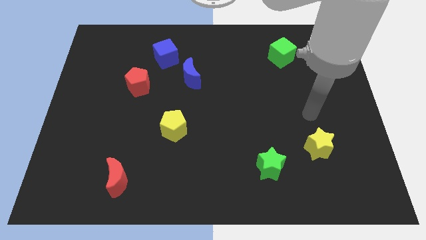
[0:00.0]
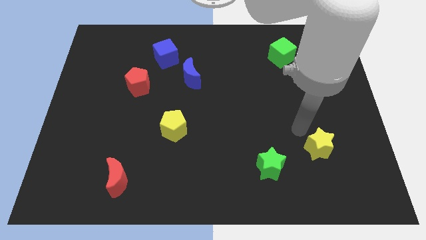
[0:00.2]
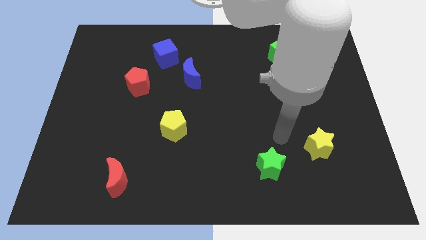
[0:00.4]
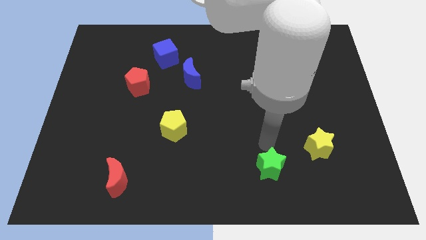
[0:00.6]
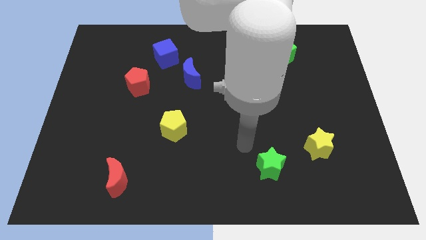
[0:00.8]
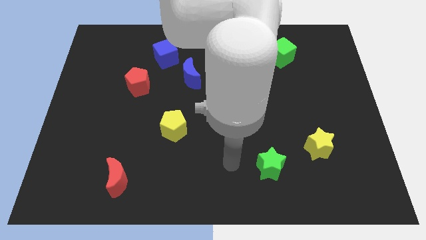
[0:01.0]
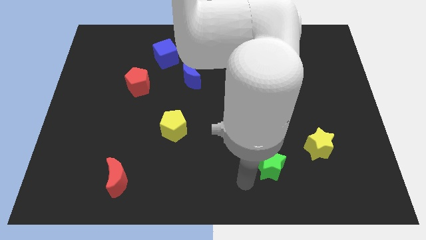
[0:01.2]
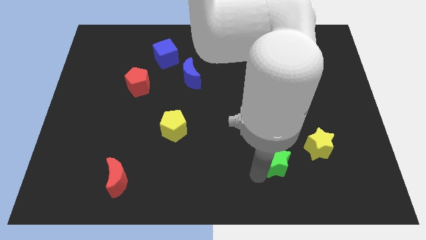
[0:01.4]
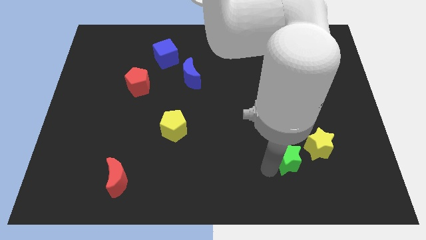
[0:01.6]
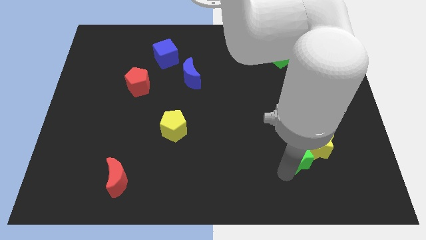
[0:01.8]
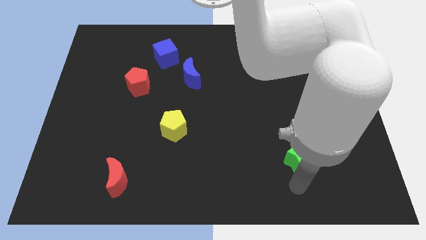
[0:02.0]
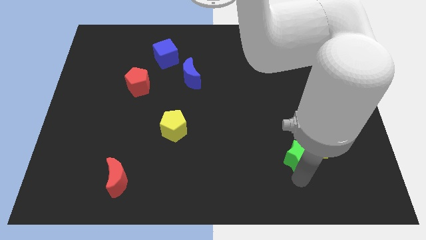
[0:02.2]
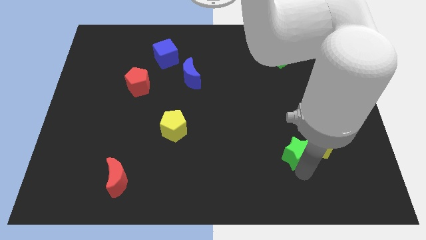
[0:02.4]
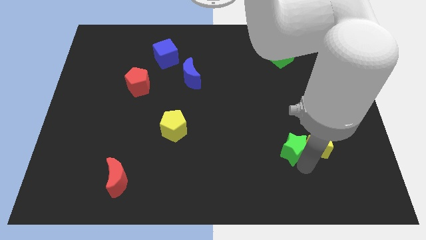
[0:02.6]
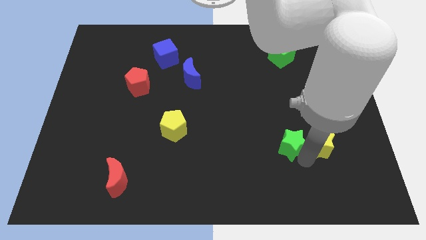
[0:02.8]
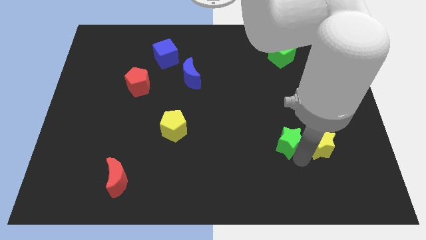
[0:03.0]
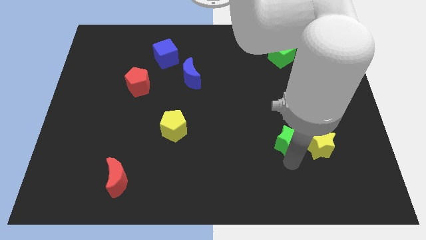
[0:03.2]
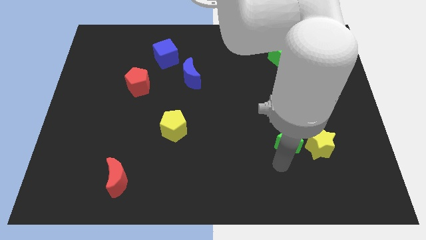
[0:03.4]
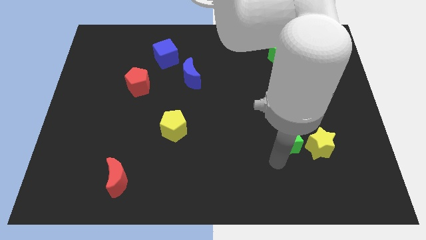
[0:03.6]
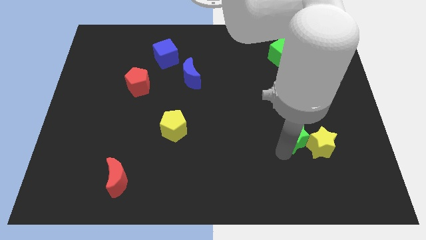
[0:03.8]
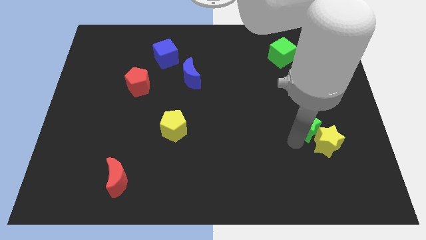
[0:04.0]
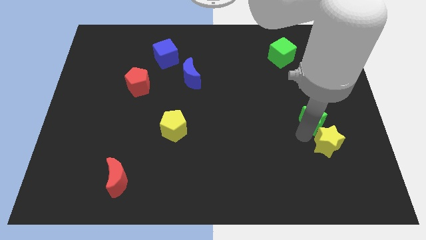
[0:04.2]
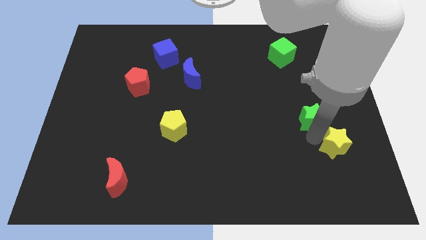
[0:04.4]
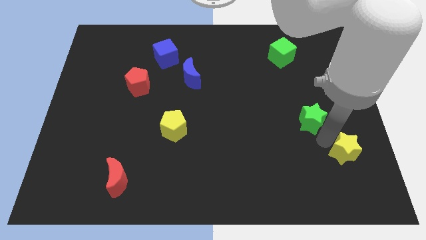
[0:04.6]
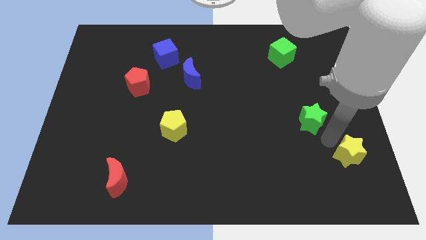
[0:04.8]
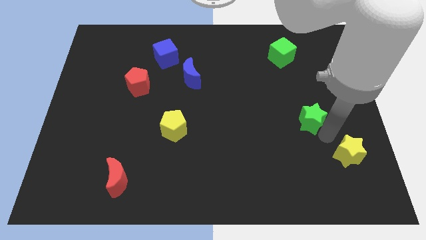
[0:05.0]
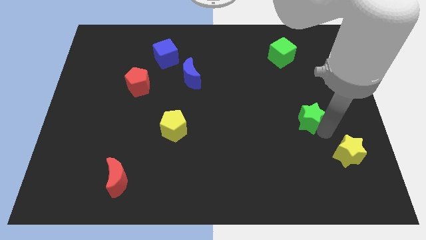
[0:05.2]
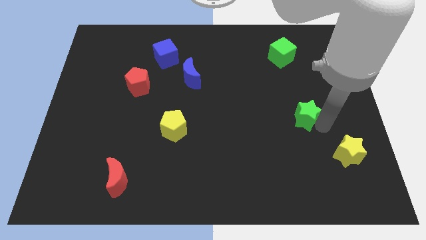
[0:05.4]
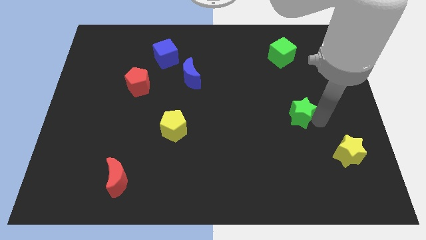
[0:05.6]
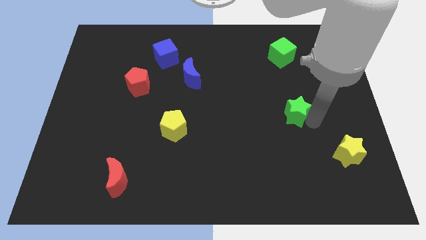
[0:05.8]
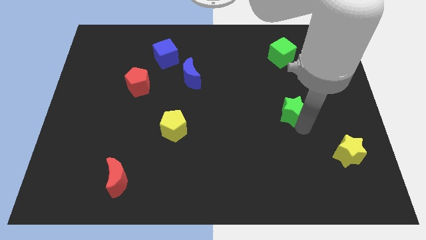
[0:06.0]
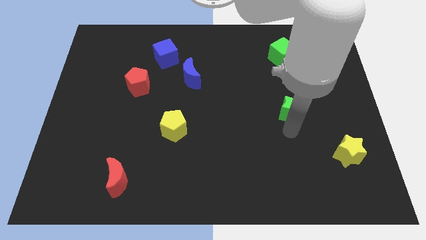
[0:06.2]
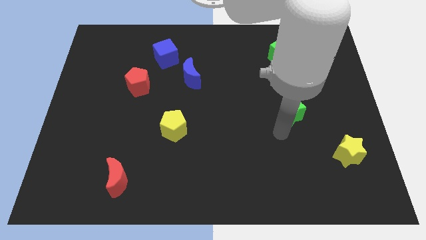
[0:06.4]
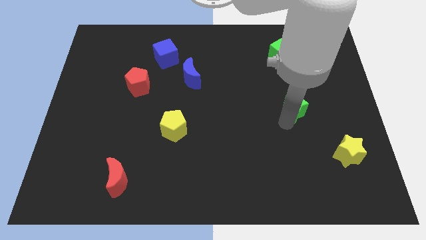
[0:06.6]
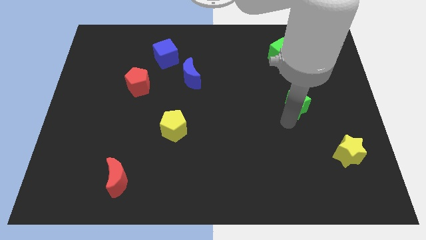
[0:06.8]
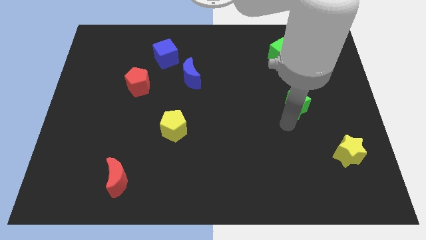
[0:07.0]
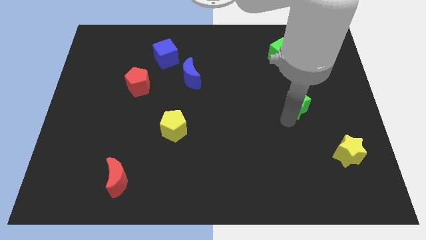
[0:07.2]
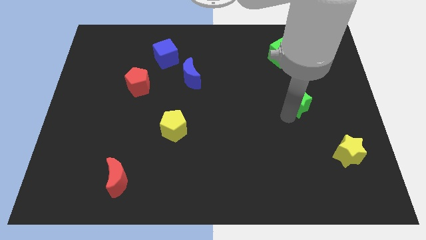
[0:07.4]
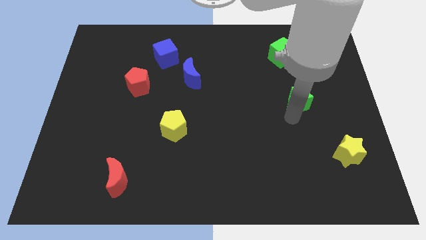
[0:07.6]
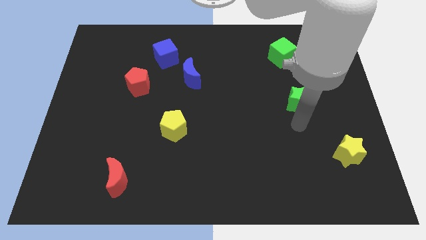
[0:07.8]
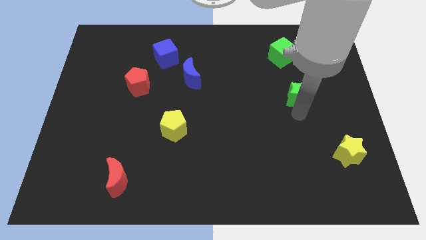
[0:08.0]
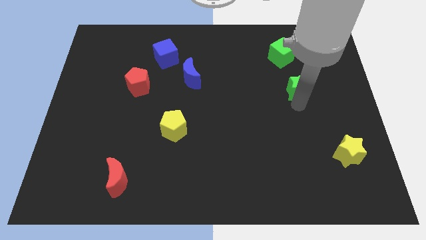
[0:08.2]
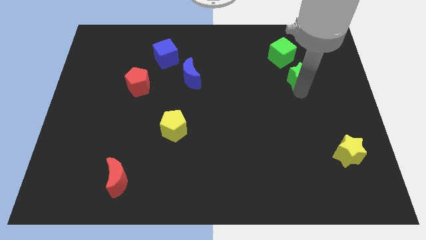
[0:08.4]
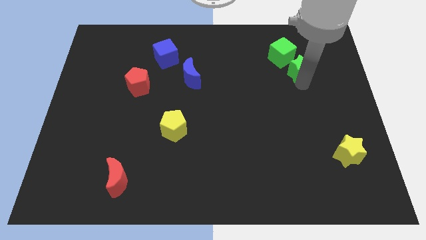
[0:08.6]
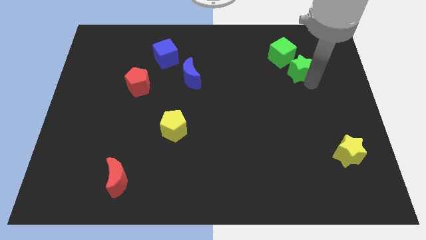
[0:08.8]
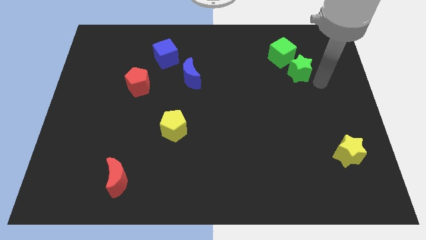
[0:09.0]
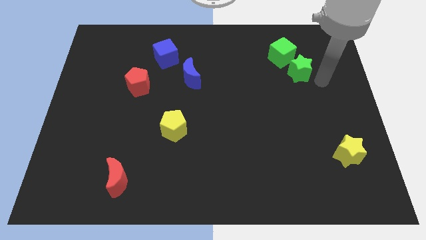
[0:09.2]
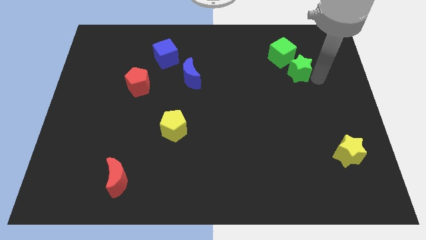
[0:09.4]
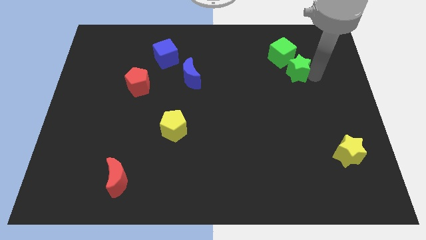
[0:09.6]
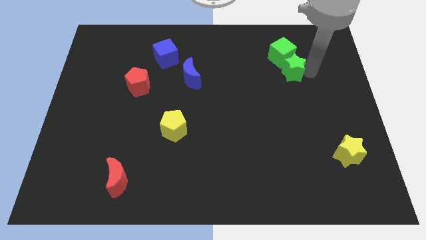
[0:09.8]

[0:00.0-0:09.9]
slide the green star towards the green cube

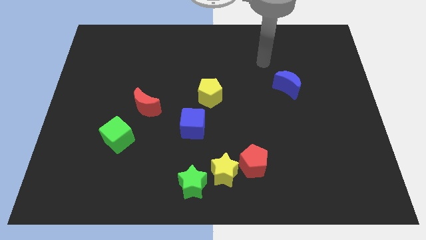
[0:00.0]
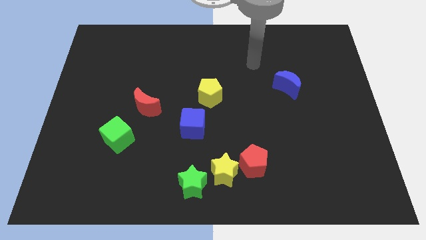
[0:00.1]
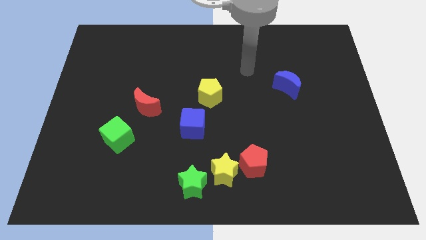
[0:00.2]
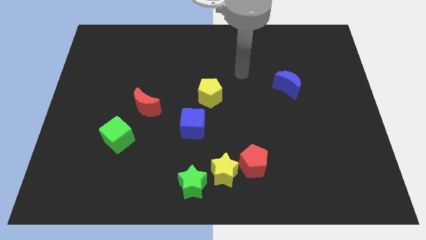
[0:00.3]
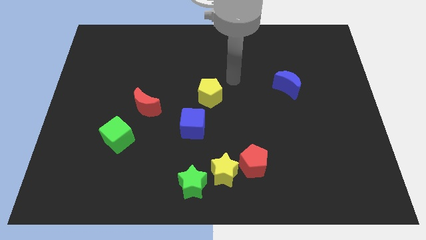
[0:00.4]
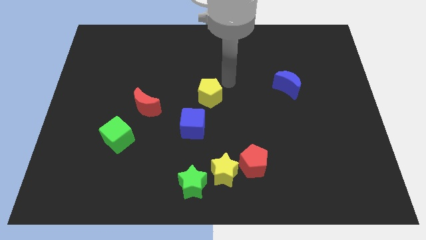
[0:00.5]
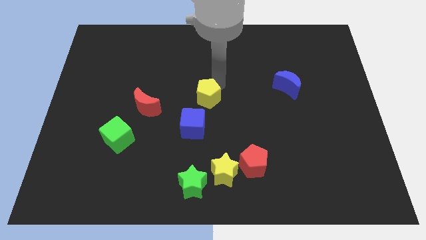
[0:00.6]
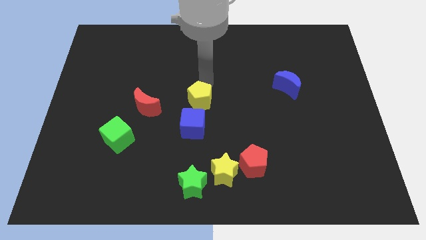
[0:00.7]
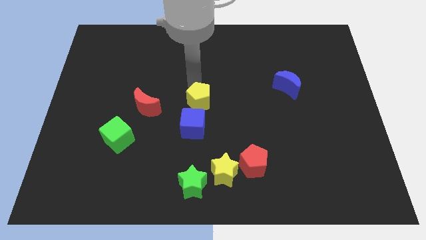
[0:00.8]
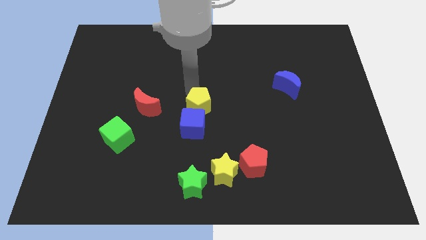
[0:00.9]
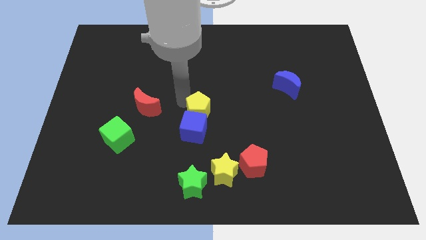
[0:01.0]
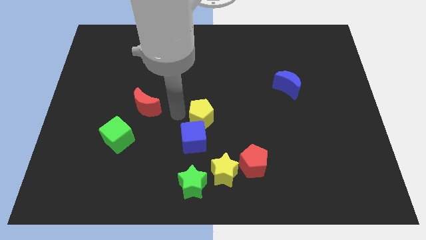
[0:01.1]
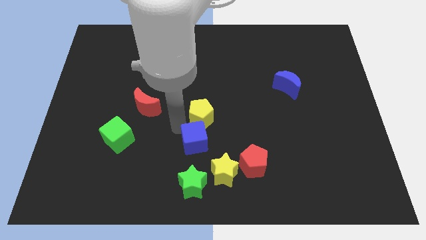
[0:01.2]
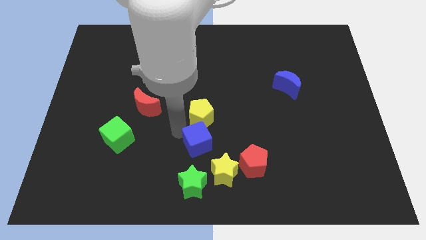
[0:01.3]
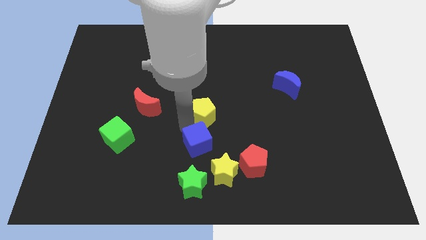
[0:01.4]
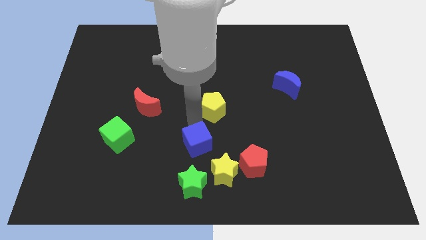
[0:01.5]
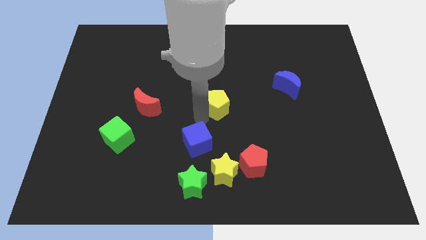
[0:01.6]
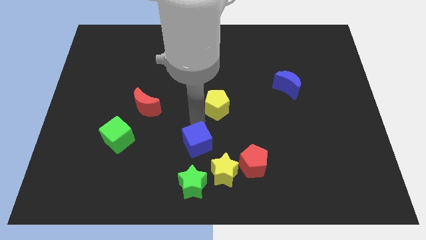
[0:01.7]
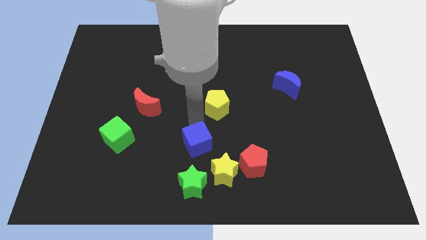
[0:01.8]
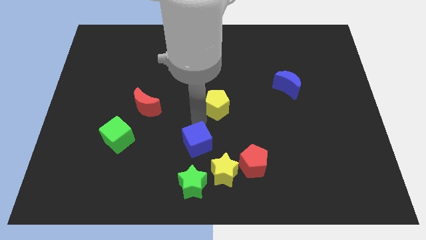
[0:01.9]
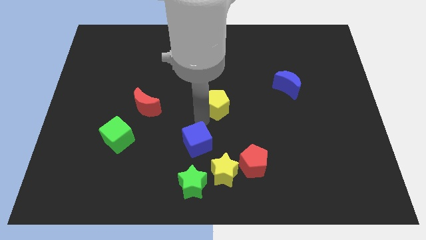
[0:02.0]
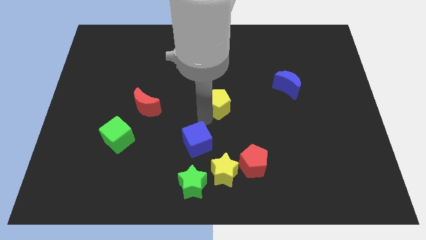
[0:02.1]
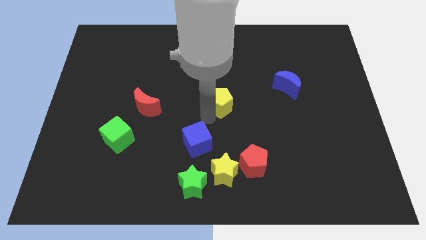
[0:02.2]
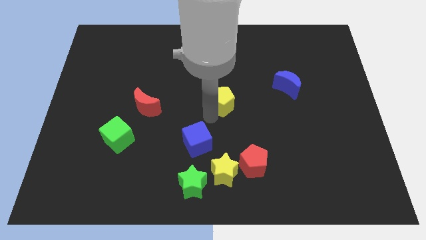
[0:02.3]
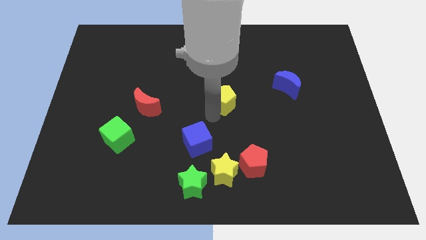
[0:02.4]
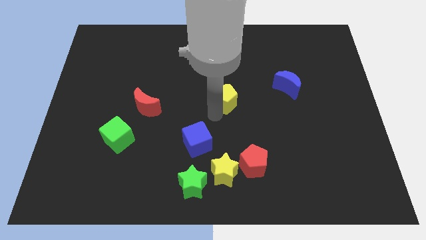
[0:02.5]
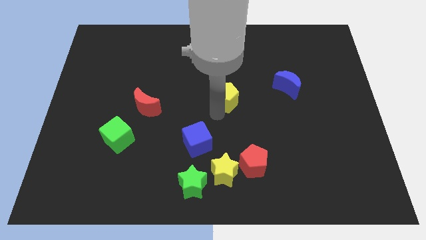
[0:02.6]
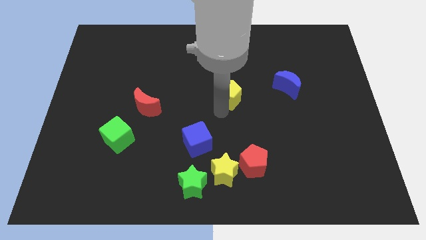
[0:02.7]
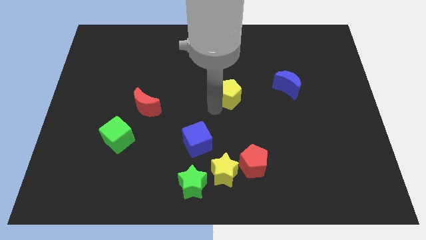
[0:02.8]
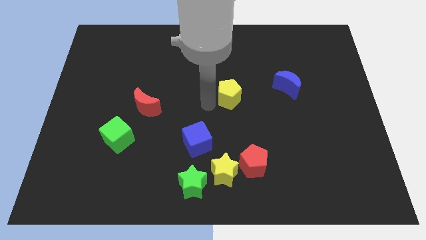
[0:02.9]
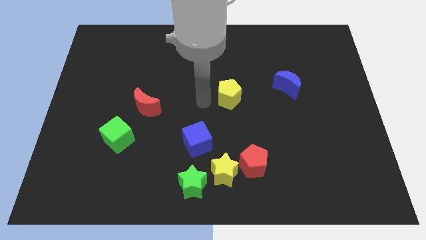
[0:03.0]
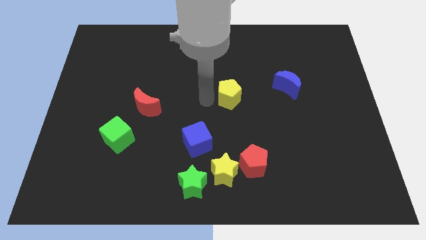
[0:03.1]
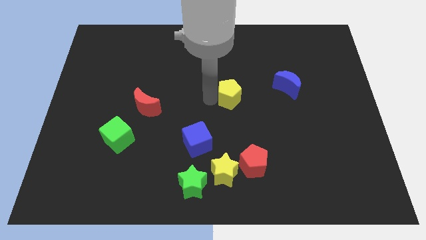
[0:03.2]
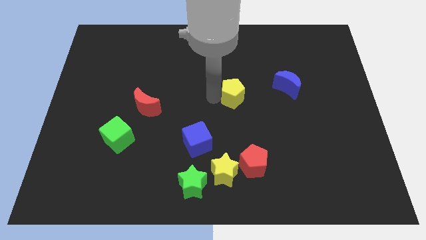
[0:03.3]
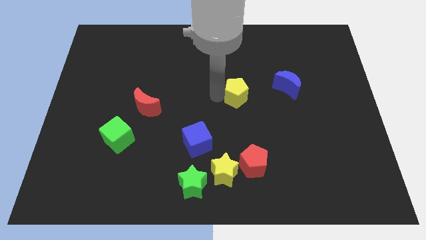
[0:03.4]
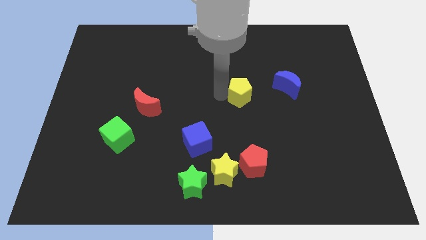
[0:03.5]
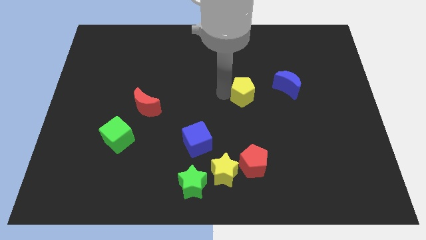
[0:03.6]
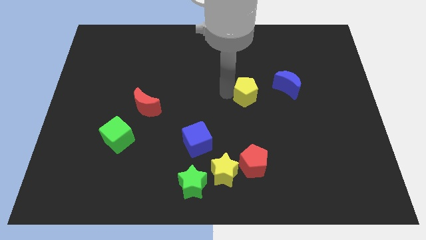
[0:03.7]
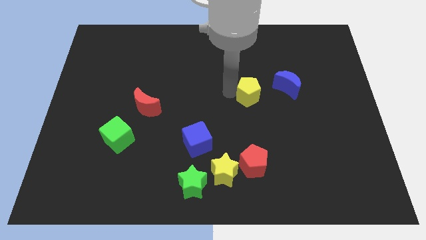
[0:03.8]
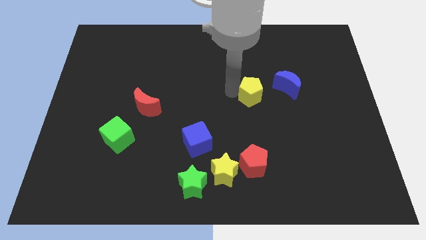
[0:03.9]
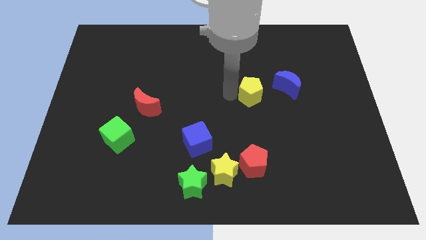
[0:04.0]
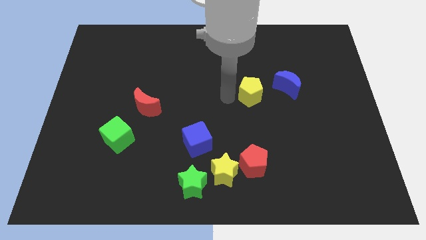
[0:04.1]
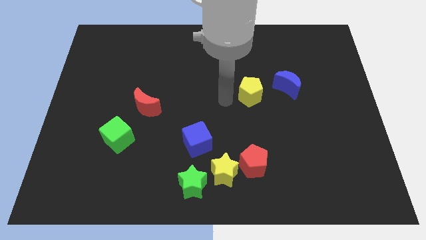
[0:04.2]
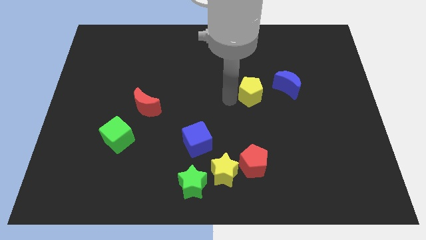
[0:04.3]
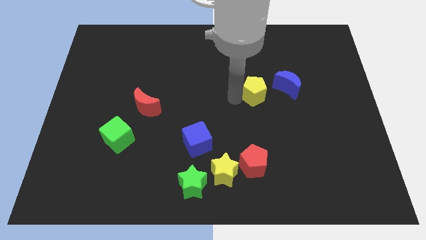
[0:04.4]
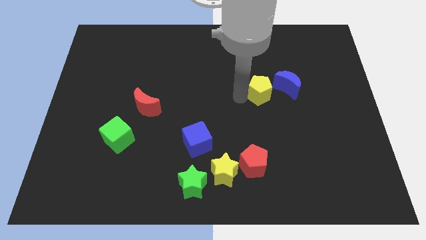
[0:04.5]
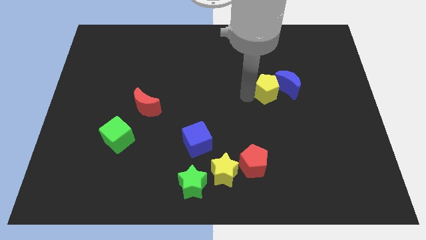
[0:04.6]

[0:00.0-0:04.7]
put the yellow pentagon close to the blue moon
